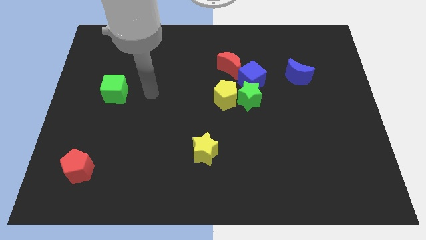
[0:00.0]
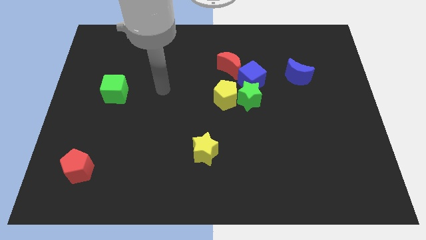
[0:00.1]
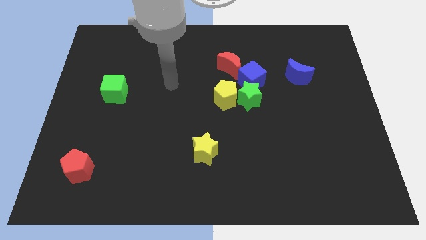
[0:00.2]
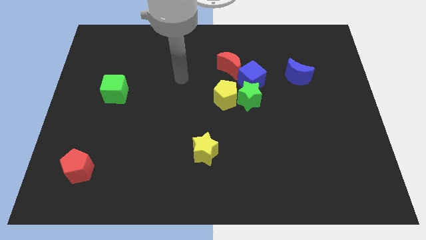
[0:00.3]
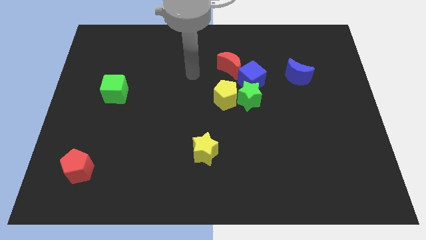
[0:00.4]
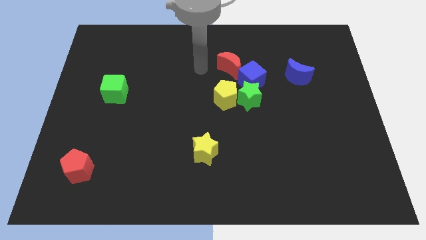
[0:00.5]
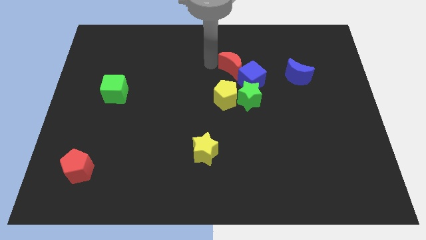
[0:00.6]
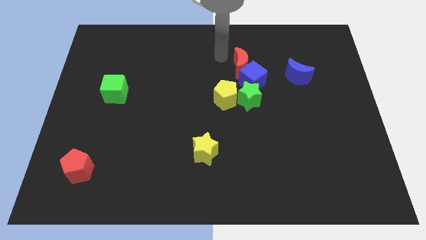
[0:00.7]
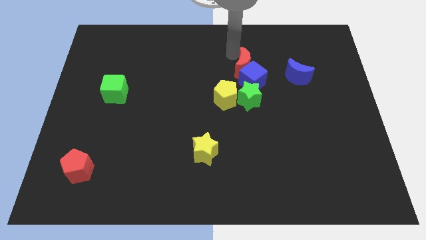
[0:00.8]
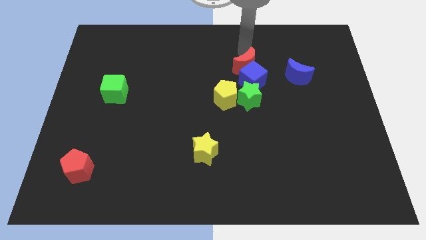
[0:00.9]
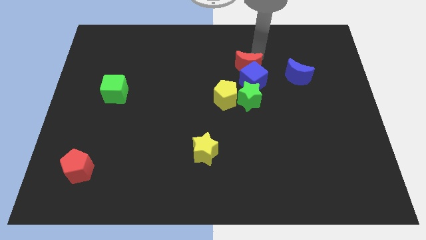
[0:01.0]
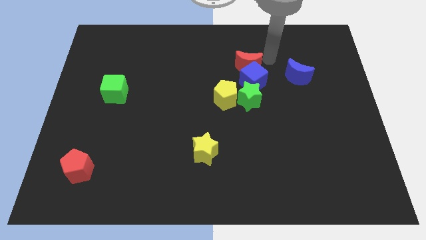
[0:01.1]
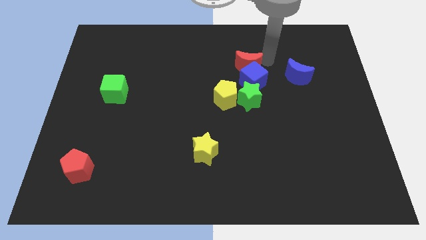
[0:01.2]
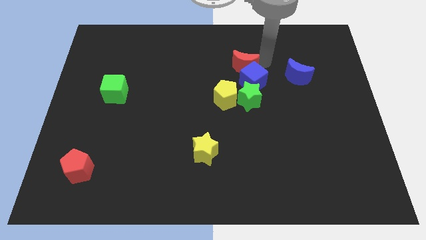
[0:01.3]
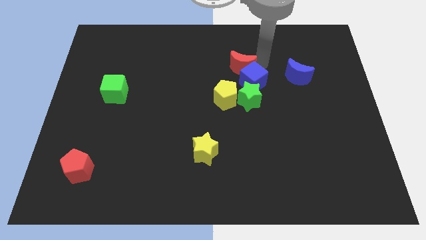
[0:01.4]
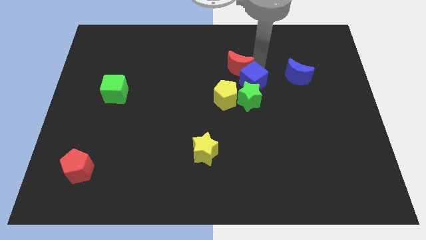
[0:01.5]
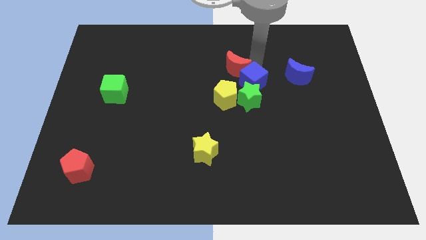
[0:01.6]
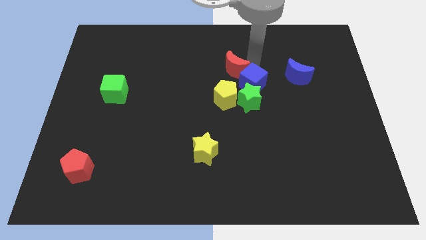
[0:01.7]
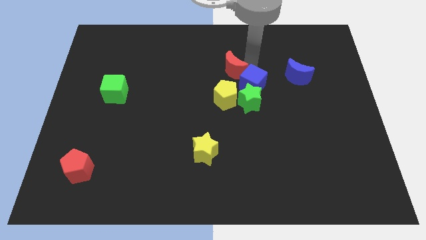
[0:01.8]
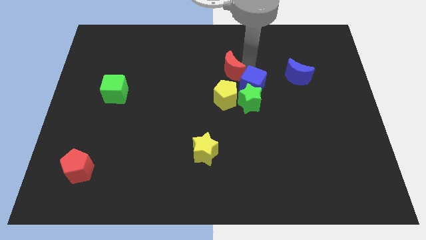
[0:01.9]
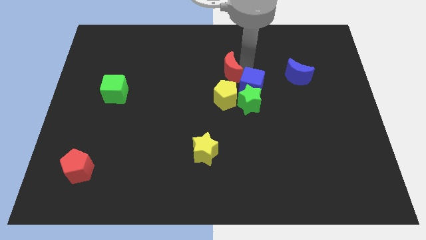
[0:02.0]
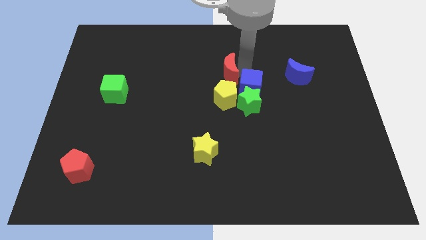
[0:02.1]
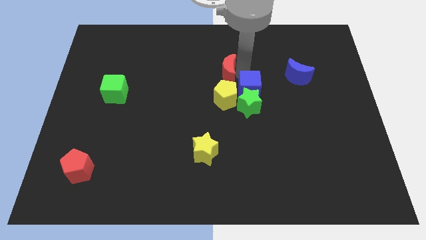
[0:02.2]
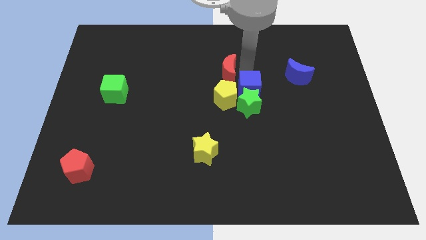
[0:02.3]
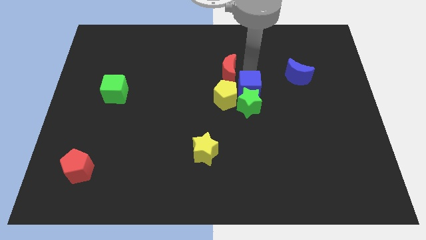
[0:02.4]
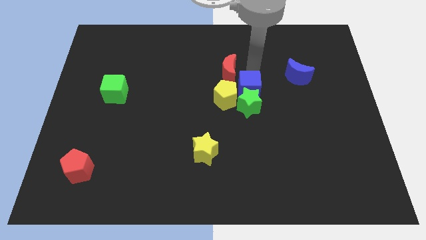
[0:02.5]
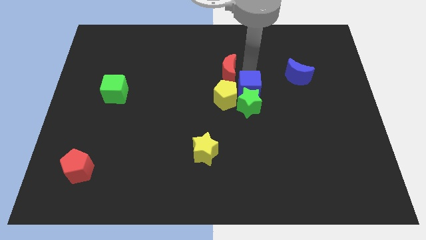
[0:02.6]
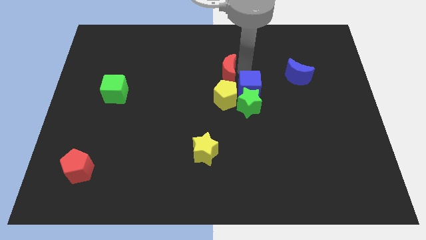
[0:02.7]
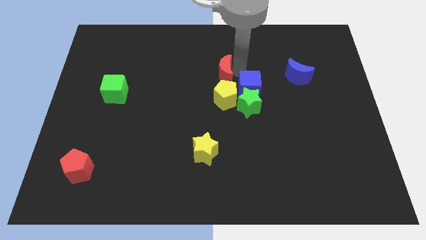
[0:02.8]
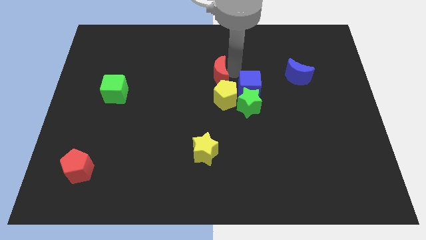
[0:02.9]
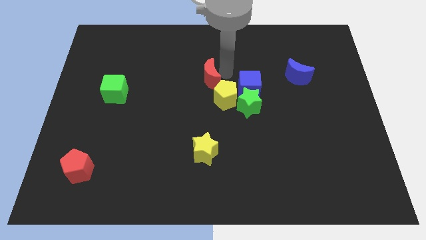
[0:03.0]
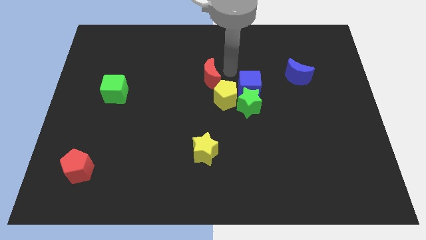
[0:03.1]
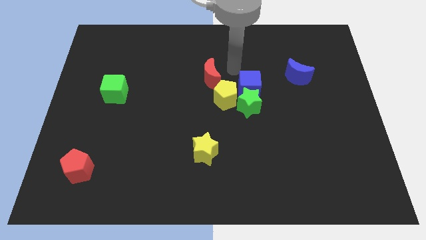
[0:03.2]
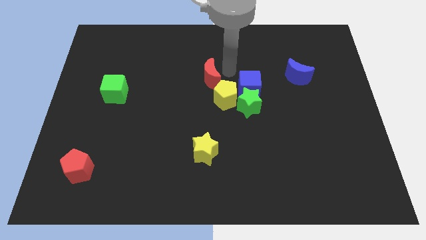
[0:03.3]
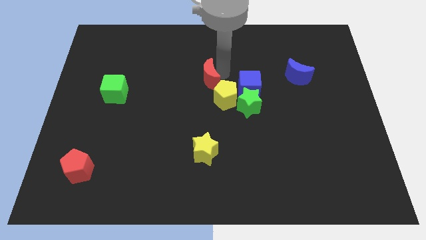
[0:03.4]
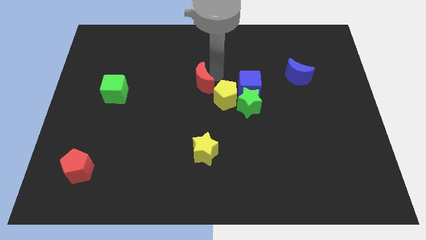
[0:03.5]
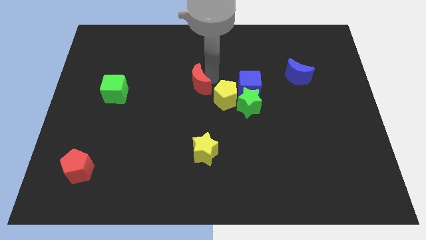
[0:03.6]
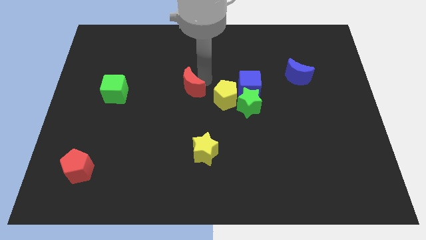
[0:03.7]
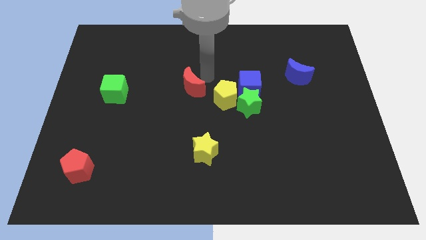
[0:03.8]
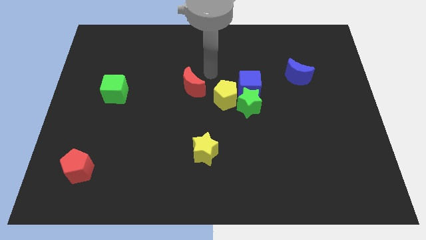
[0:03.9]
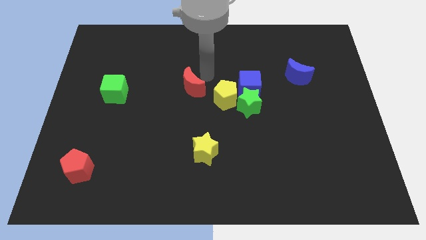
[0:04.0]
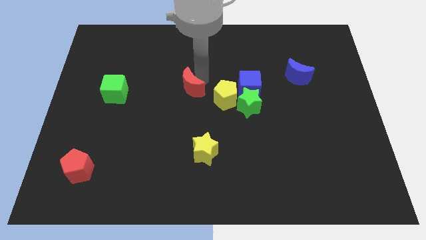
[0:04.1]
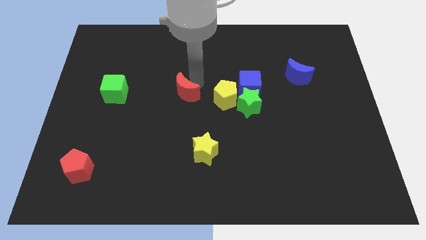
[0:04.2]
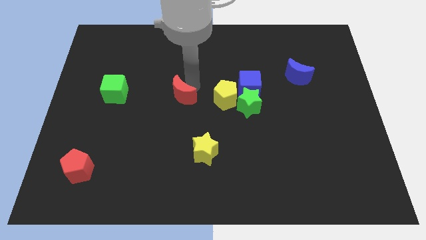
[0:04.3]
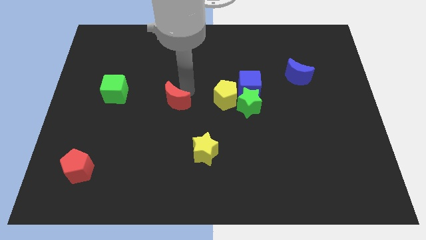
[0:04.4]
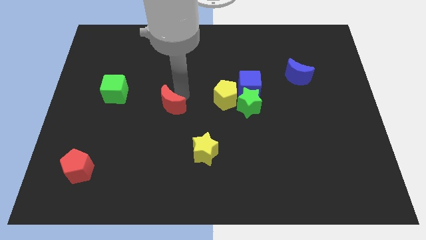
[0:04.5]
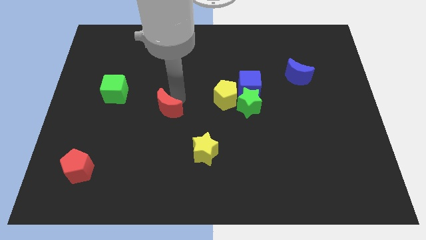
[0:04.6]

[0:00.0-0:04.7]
slide the red moon down and then to the left

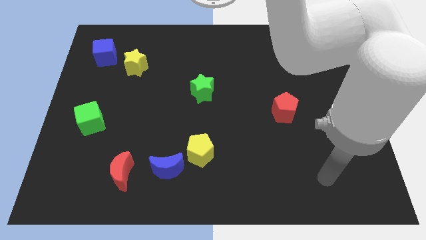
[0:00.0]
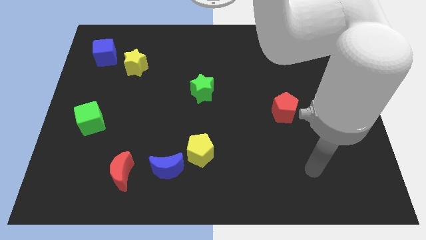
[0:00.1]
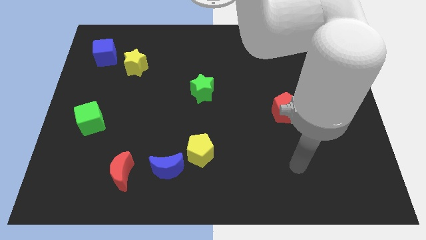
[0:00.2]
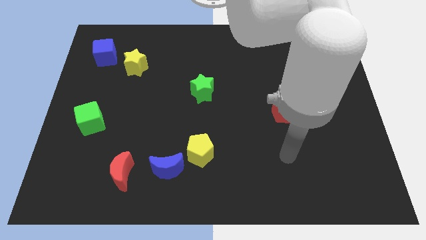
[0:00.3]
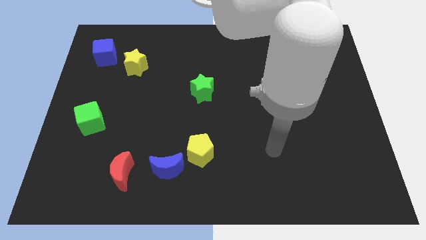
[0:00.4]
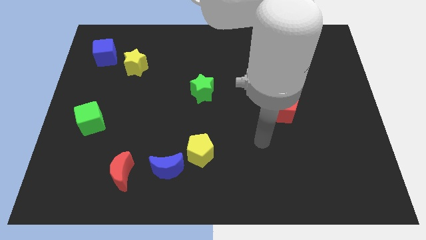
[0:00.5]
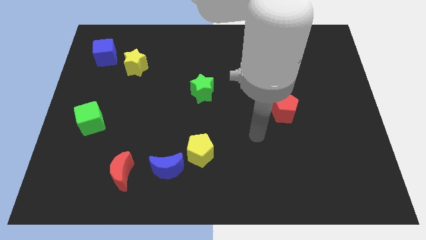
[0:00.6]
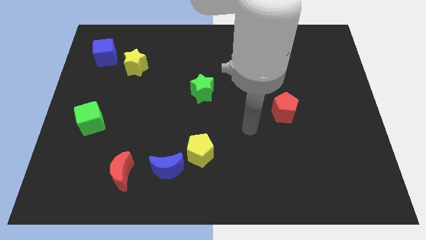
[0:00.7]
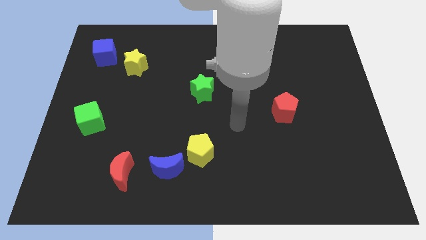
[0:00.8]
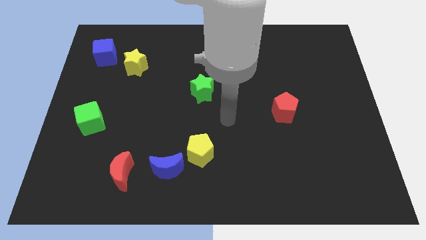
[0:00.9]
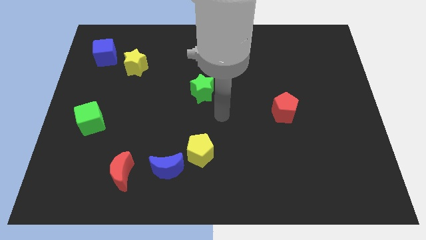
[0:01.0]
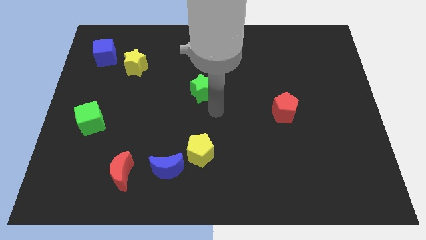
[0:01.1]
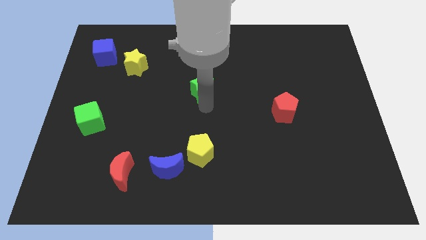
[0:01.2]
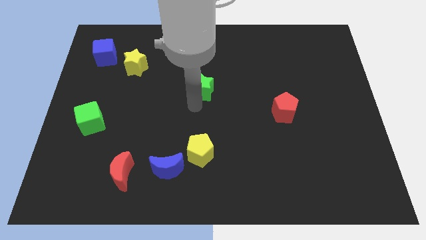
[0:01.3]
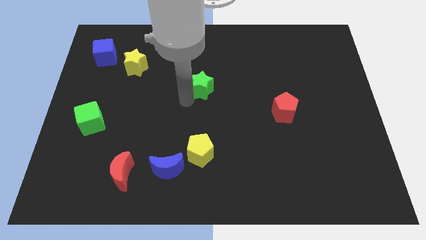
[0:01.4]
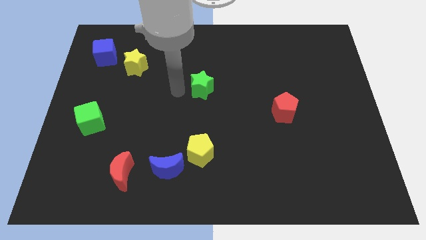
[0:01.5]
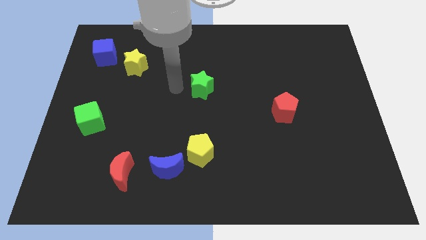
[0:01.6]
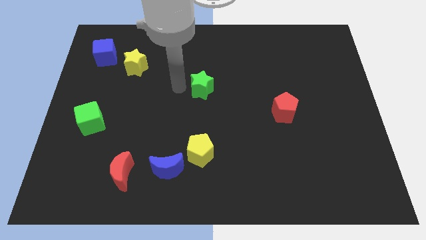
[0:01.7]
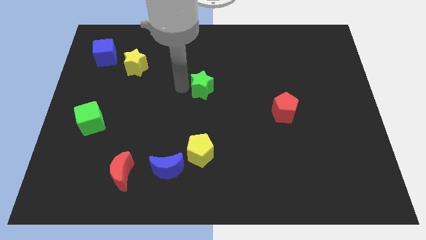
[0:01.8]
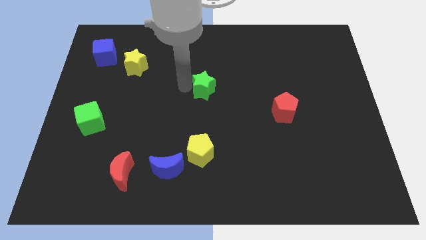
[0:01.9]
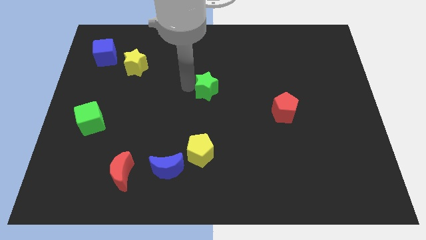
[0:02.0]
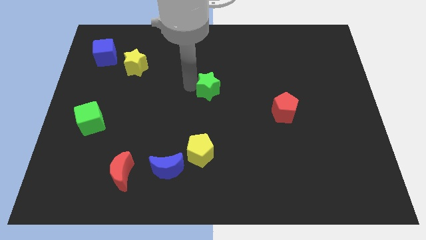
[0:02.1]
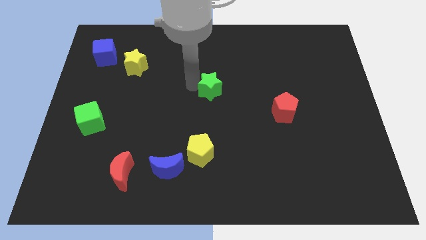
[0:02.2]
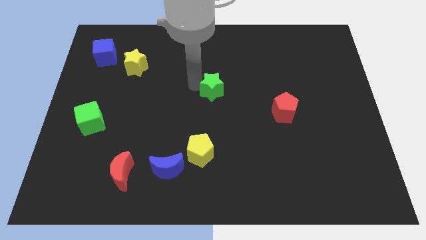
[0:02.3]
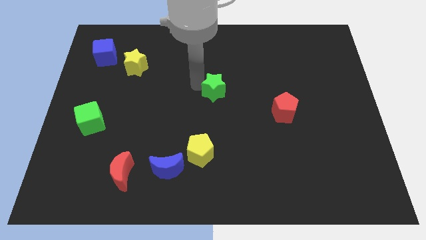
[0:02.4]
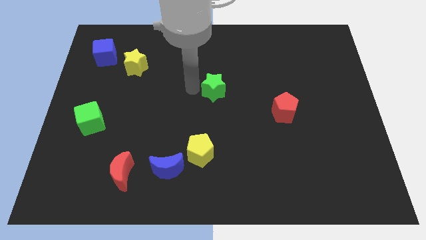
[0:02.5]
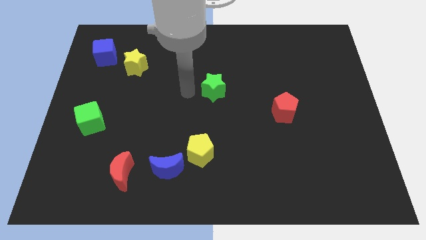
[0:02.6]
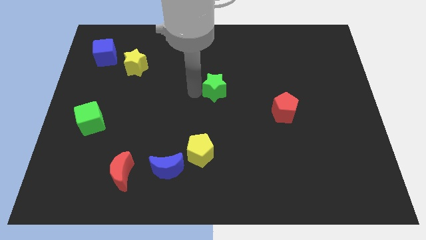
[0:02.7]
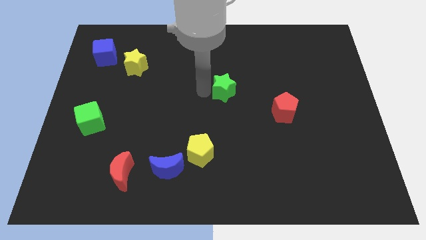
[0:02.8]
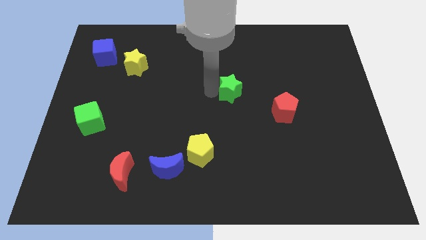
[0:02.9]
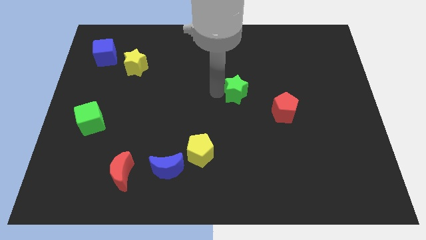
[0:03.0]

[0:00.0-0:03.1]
move the green star somewhat right

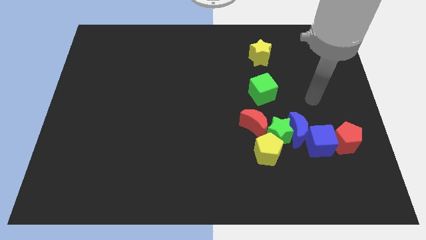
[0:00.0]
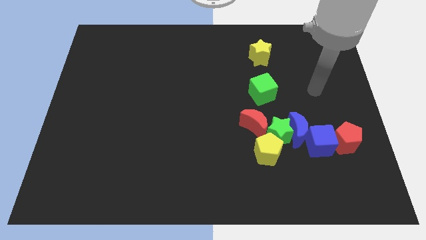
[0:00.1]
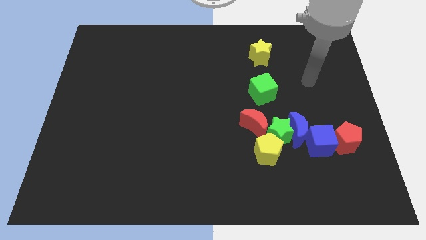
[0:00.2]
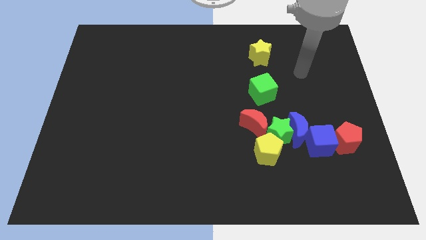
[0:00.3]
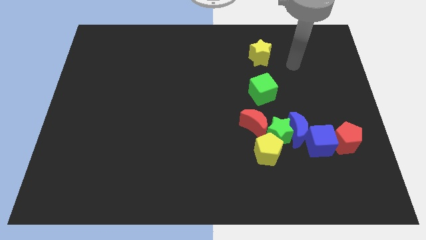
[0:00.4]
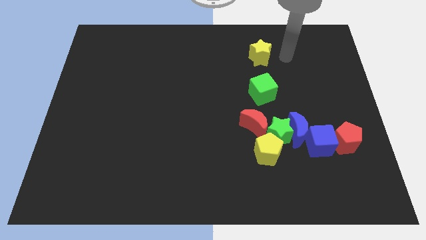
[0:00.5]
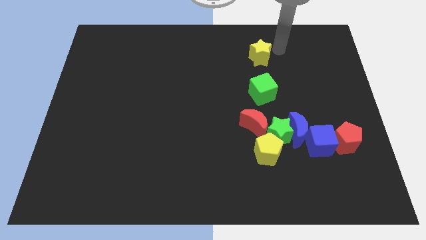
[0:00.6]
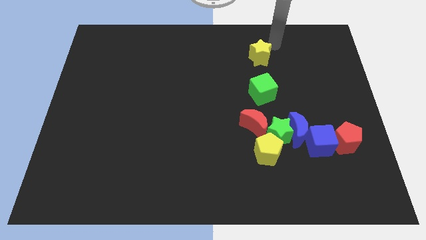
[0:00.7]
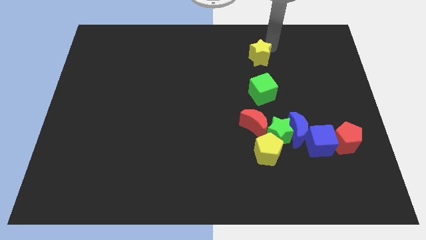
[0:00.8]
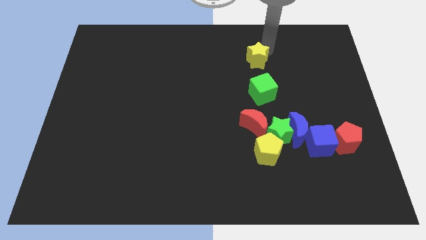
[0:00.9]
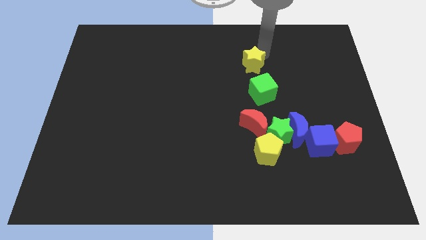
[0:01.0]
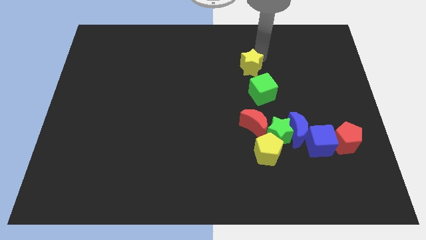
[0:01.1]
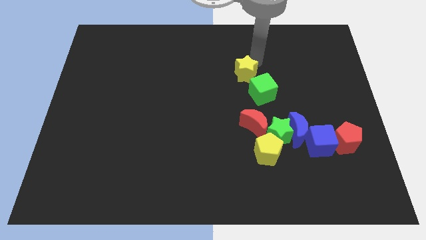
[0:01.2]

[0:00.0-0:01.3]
slide the yellow star a little down and to the left diagonally
